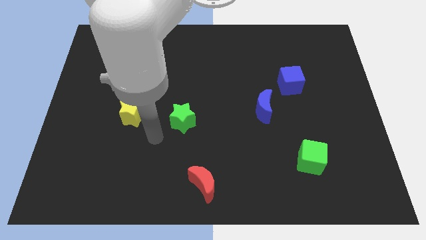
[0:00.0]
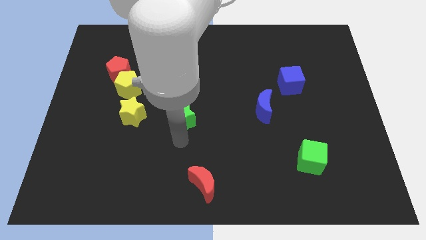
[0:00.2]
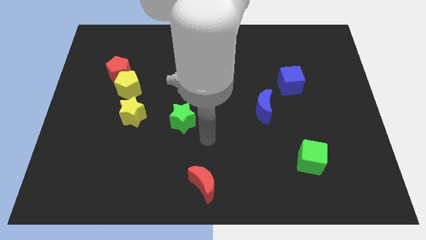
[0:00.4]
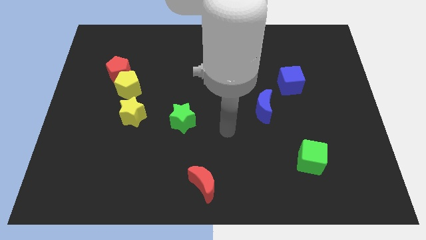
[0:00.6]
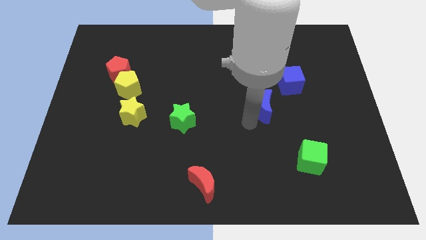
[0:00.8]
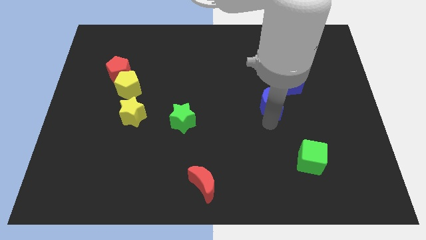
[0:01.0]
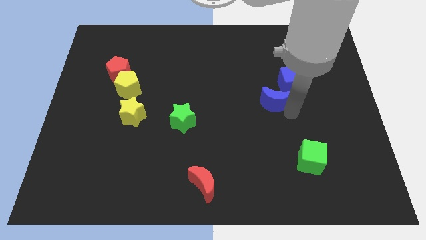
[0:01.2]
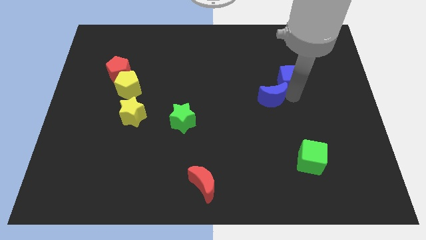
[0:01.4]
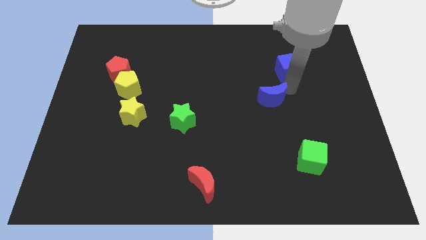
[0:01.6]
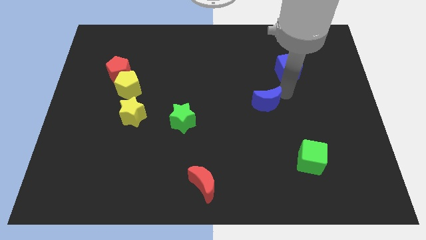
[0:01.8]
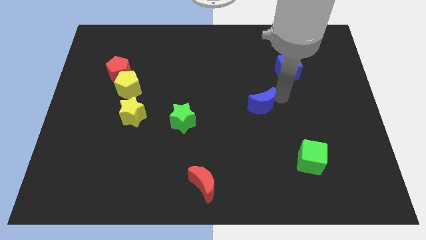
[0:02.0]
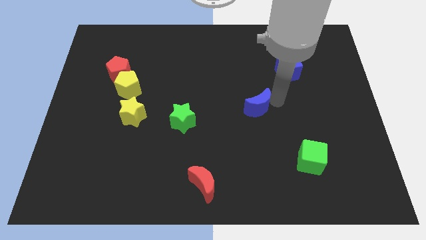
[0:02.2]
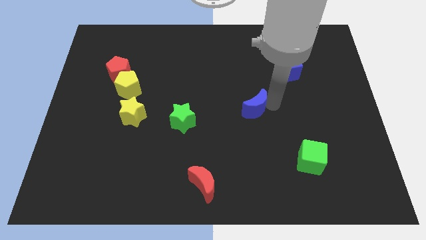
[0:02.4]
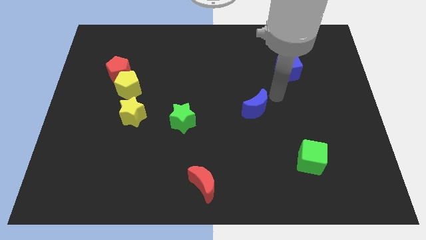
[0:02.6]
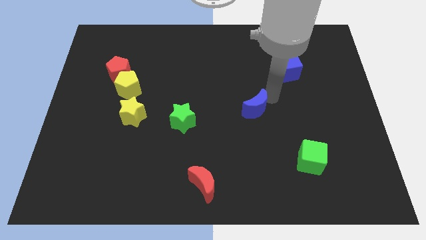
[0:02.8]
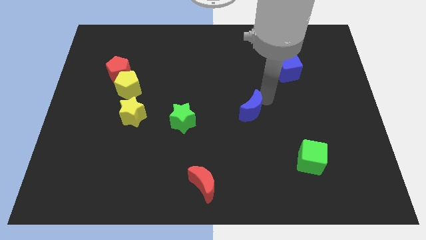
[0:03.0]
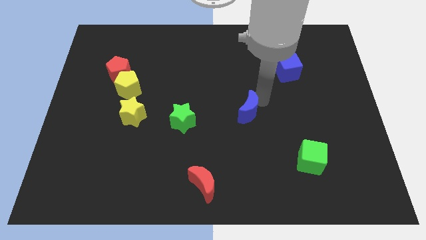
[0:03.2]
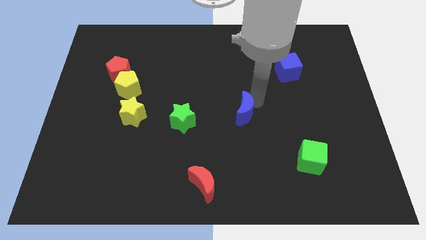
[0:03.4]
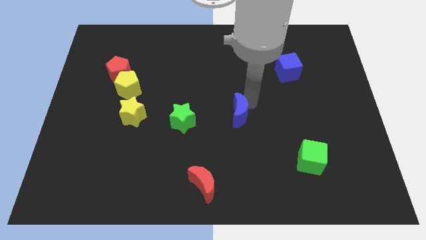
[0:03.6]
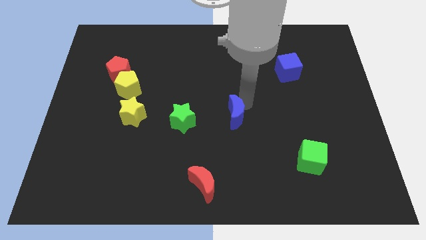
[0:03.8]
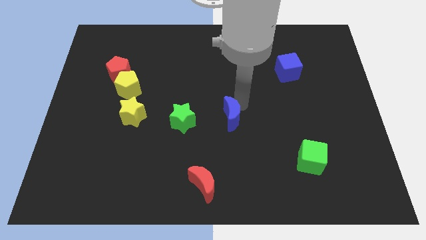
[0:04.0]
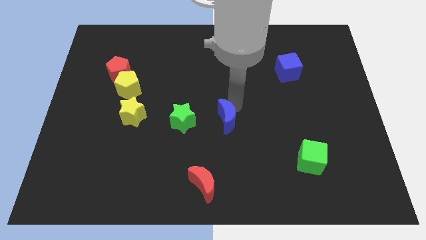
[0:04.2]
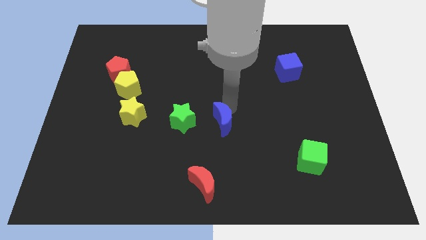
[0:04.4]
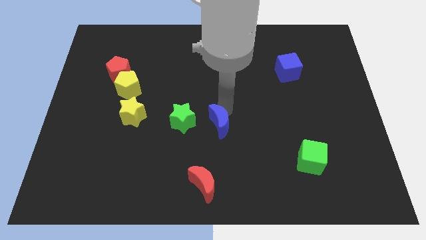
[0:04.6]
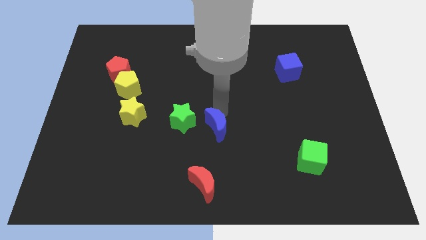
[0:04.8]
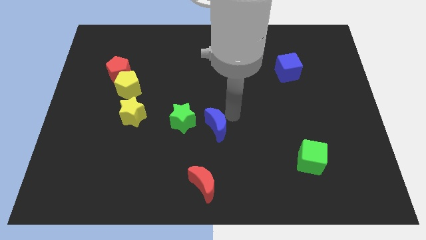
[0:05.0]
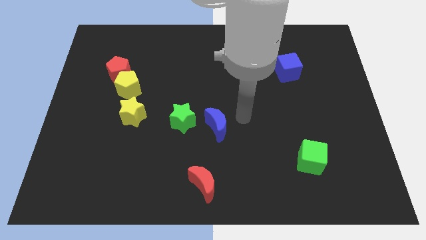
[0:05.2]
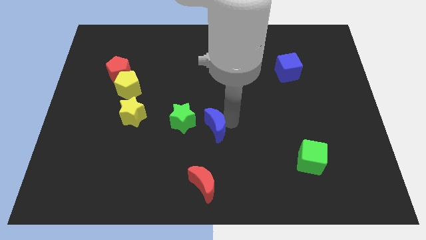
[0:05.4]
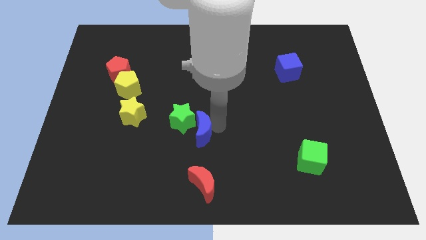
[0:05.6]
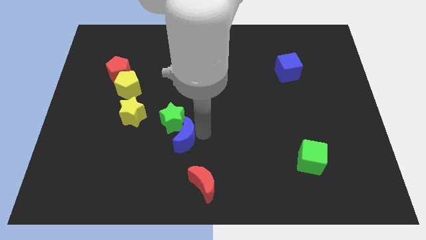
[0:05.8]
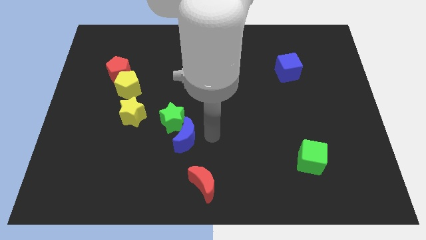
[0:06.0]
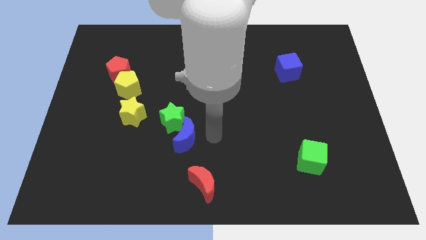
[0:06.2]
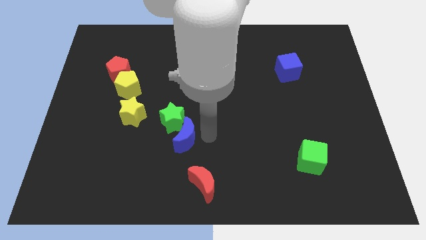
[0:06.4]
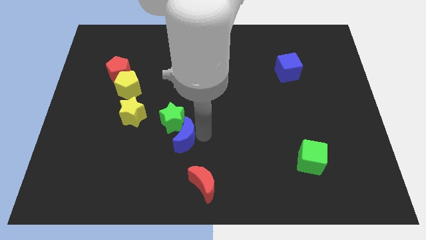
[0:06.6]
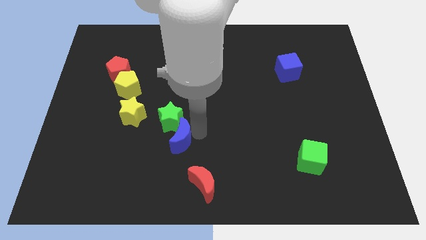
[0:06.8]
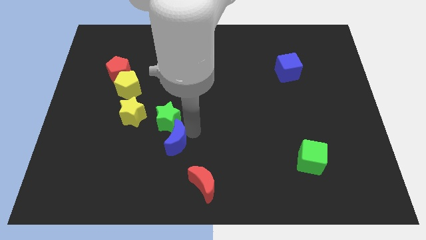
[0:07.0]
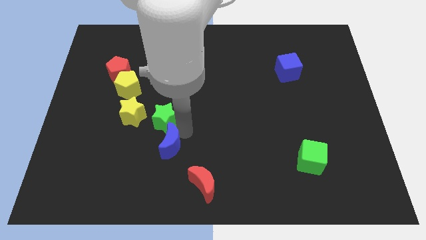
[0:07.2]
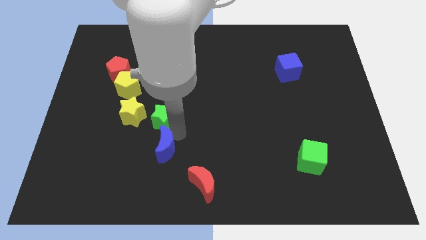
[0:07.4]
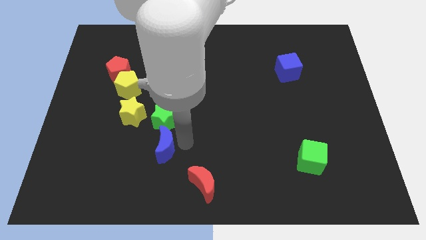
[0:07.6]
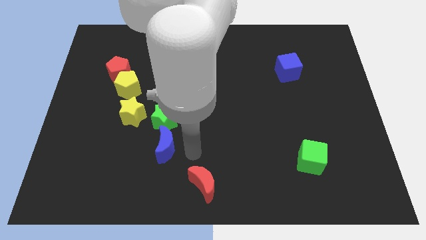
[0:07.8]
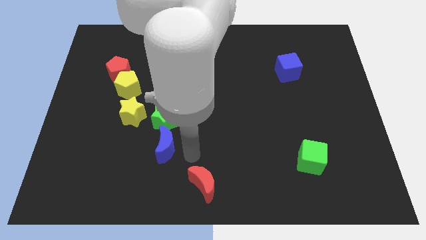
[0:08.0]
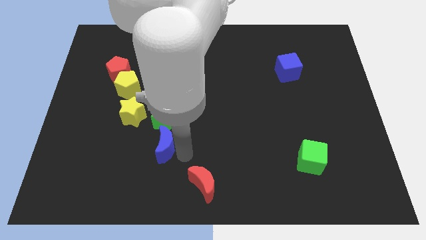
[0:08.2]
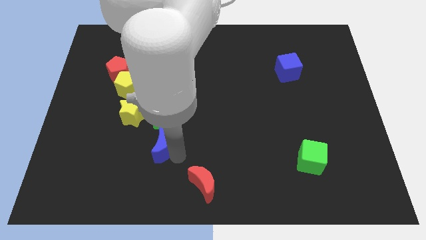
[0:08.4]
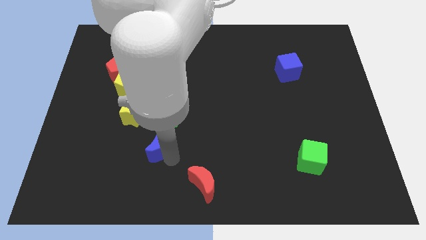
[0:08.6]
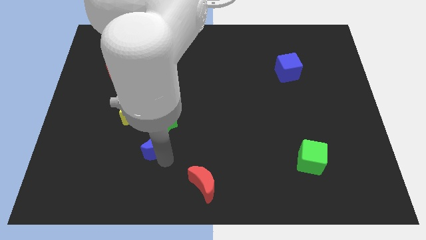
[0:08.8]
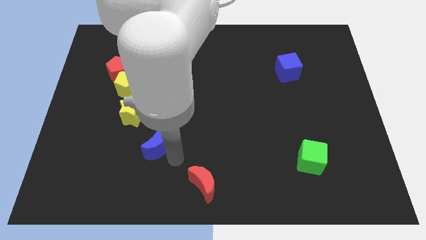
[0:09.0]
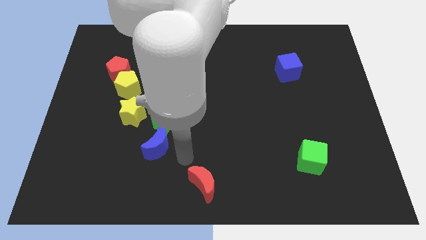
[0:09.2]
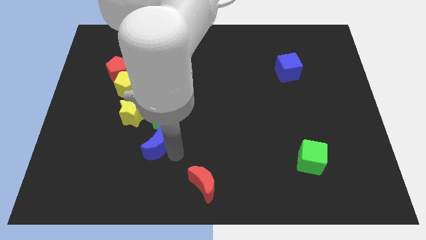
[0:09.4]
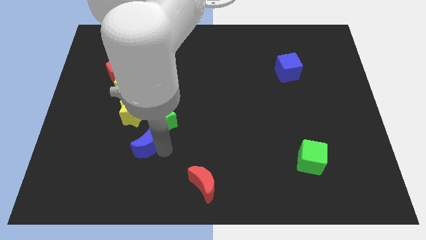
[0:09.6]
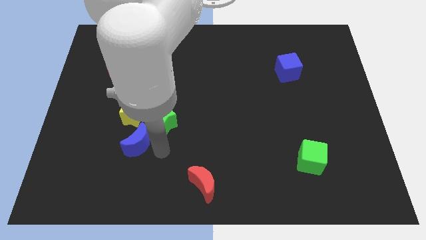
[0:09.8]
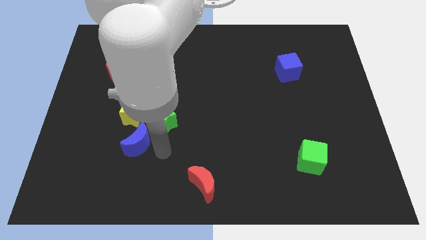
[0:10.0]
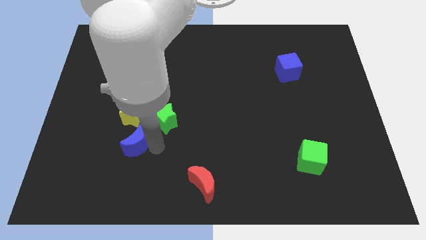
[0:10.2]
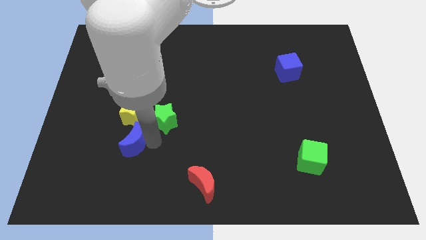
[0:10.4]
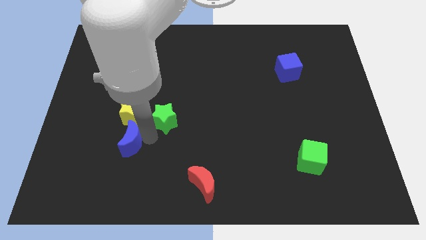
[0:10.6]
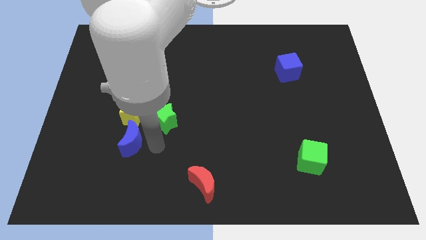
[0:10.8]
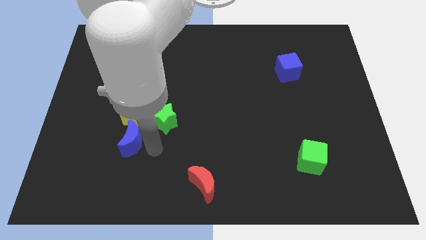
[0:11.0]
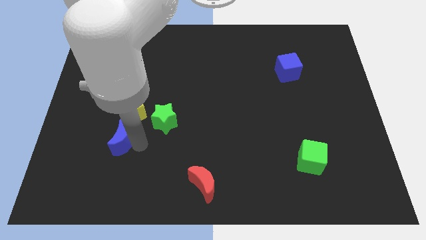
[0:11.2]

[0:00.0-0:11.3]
move the blue moon to the bottom left of the yellow star
